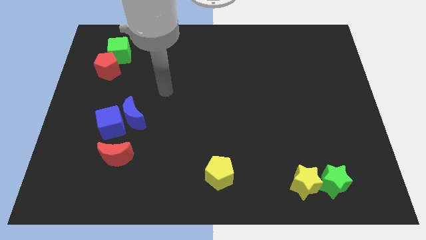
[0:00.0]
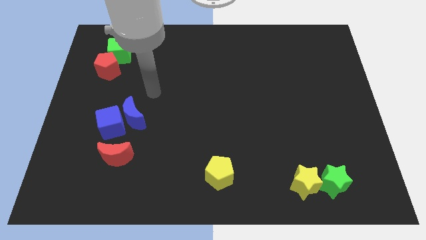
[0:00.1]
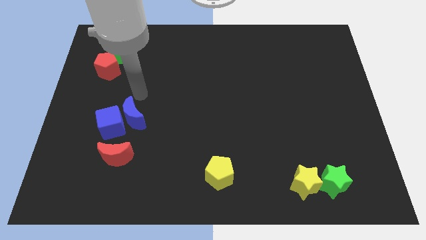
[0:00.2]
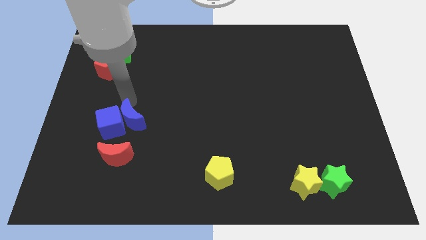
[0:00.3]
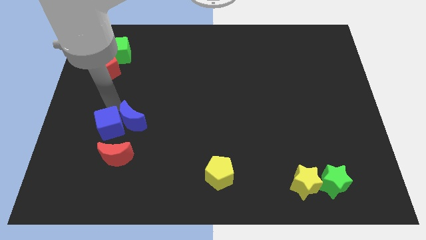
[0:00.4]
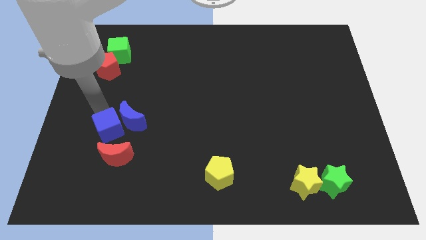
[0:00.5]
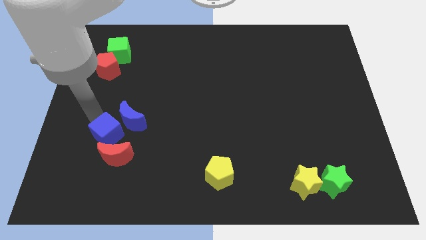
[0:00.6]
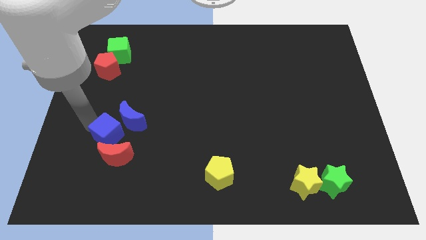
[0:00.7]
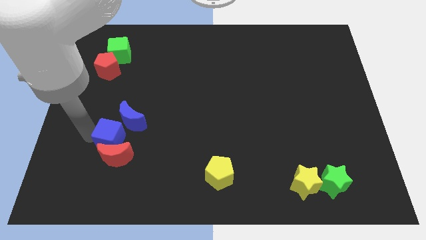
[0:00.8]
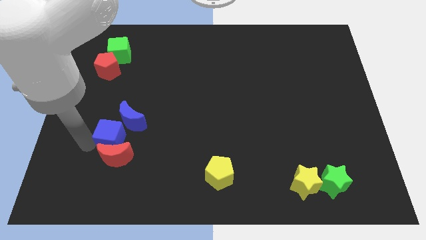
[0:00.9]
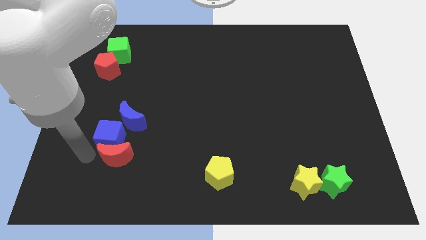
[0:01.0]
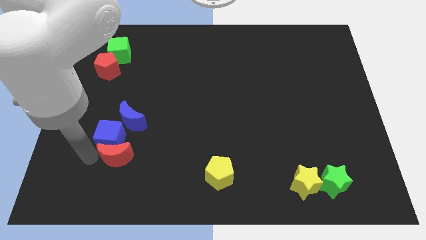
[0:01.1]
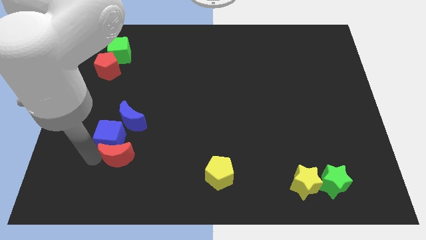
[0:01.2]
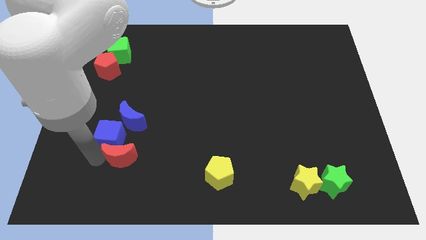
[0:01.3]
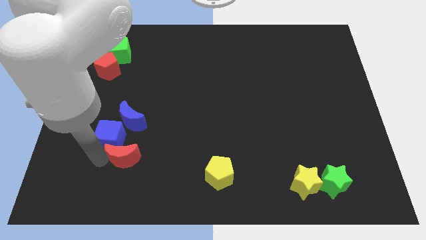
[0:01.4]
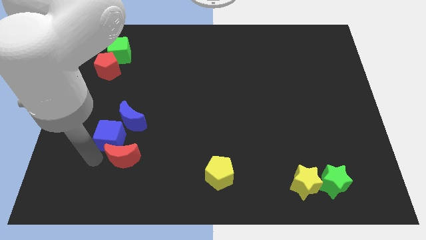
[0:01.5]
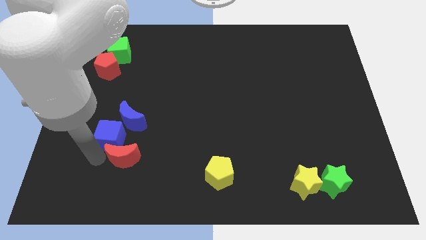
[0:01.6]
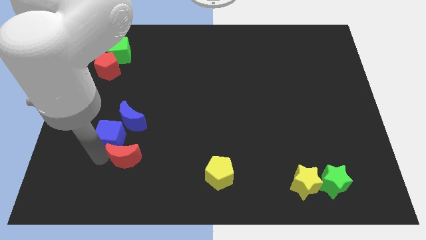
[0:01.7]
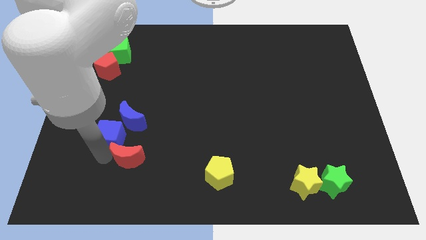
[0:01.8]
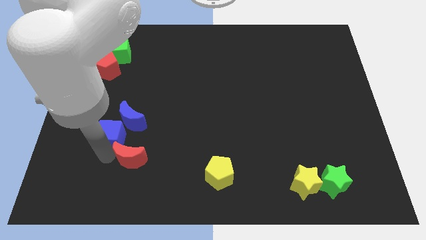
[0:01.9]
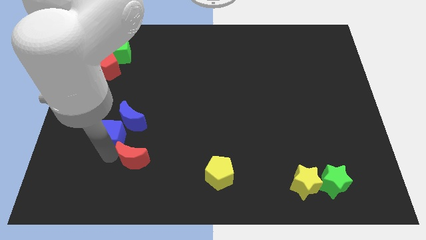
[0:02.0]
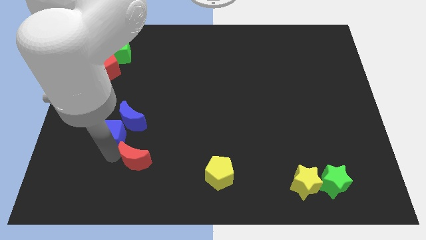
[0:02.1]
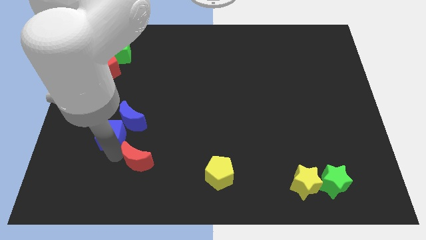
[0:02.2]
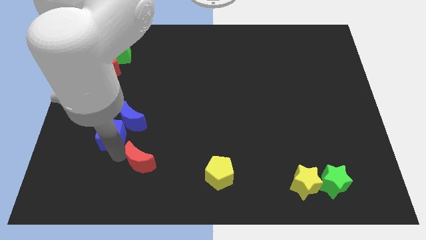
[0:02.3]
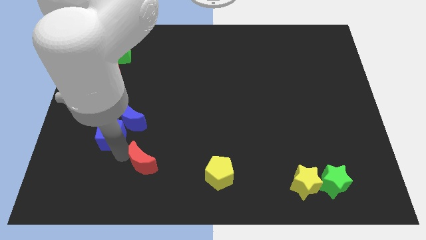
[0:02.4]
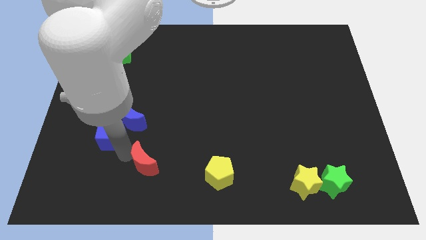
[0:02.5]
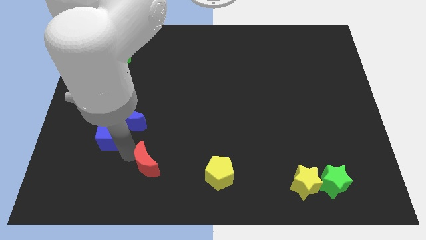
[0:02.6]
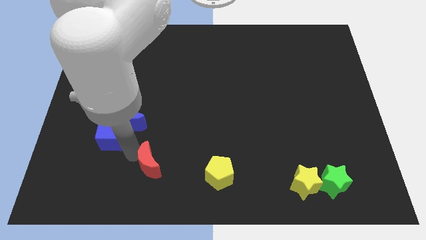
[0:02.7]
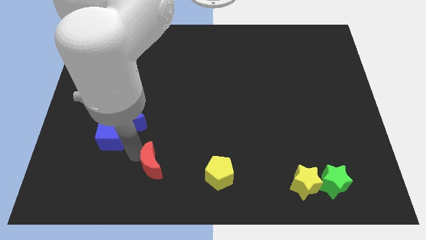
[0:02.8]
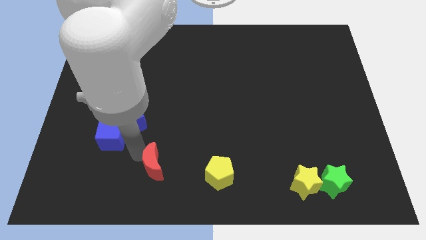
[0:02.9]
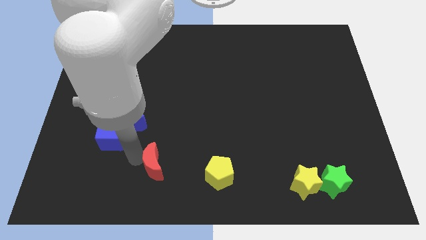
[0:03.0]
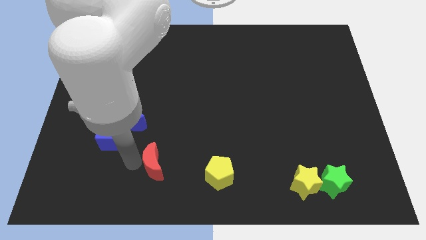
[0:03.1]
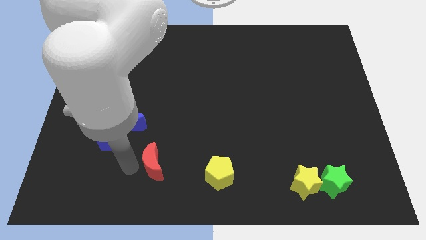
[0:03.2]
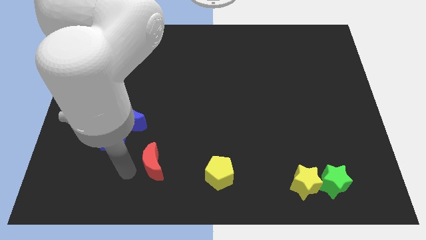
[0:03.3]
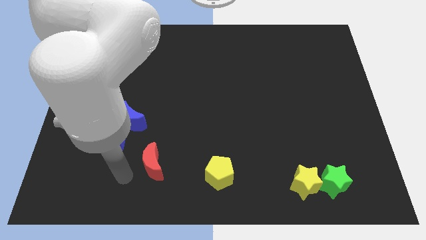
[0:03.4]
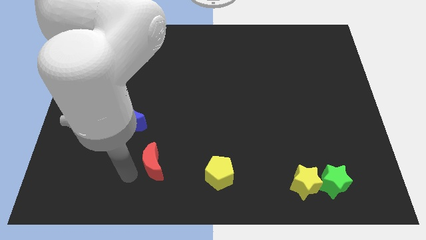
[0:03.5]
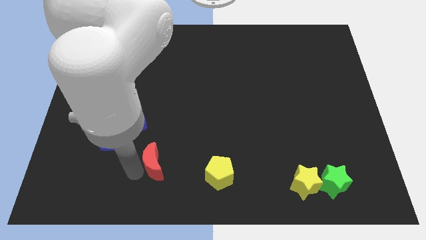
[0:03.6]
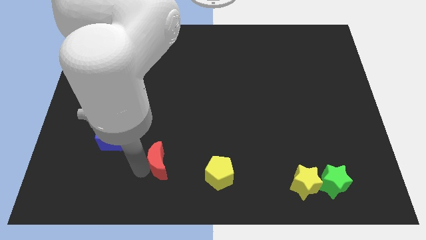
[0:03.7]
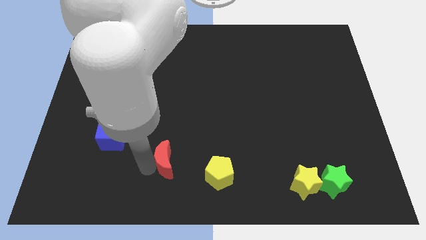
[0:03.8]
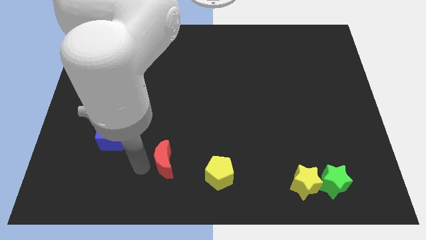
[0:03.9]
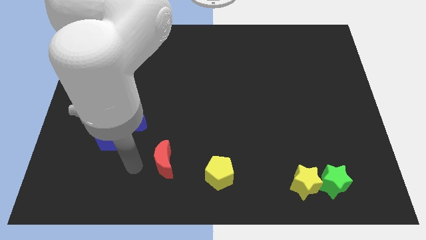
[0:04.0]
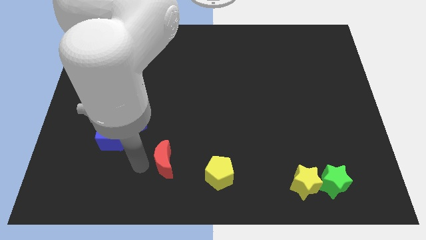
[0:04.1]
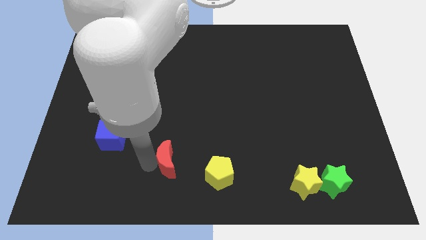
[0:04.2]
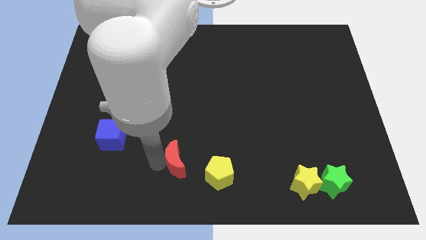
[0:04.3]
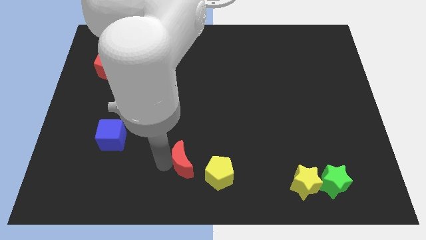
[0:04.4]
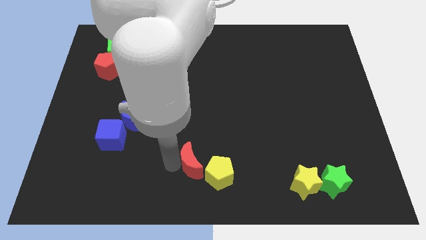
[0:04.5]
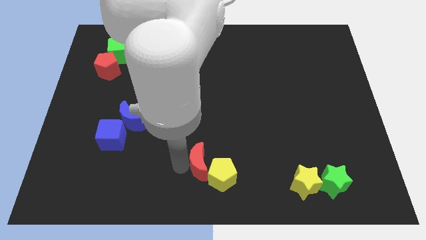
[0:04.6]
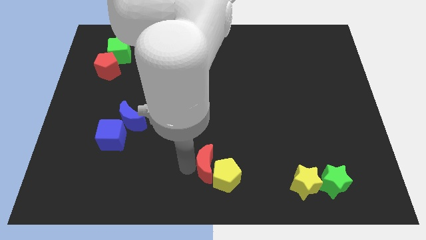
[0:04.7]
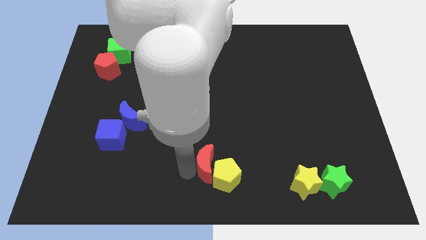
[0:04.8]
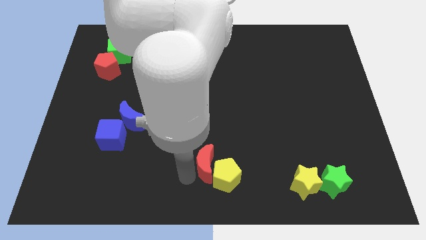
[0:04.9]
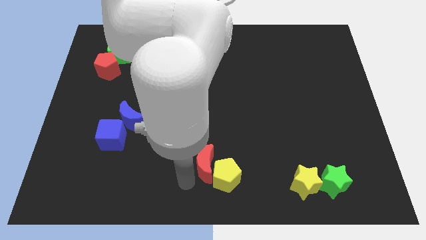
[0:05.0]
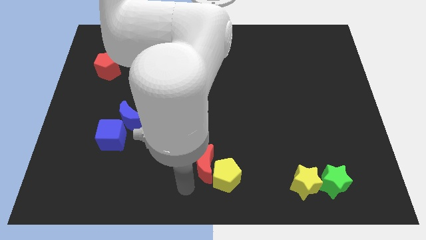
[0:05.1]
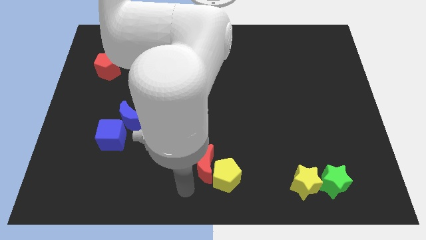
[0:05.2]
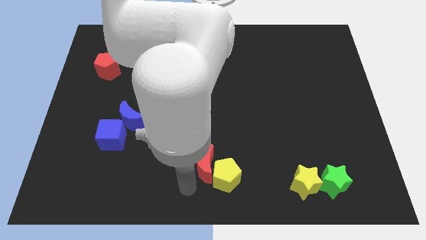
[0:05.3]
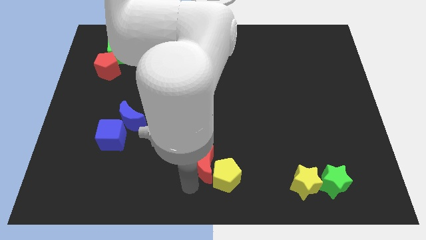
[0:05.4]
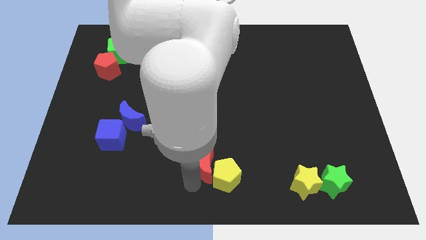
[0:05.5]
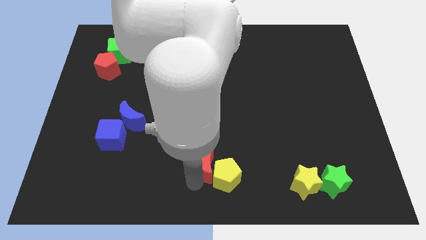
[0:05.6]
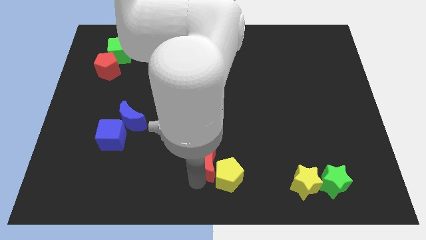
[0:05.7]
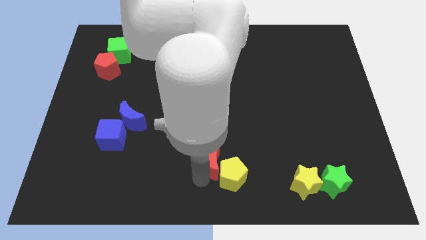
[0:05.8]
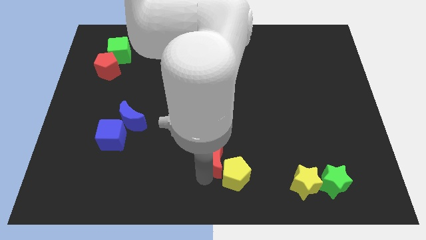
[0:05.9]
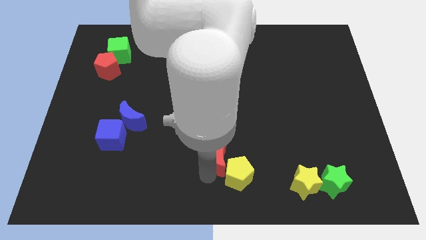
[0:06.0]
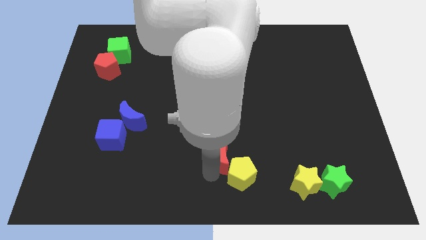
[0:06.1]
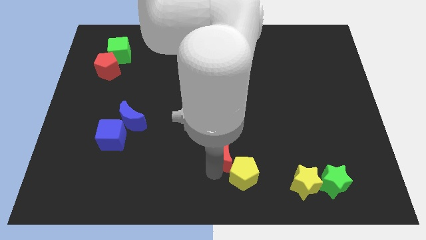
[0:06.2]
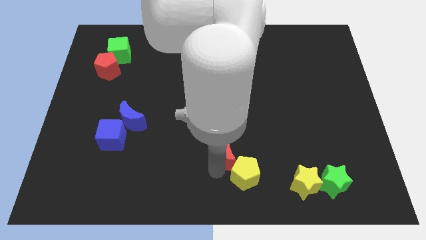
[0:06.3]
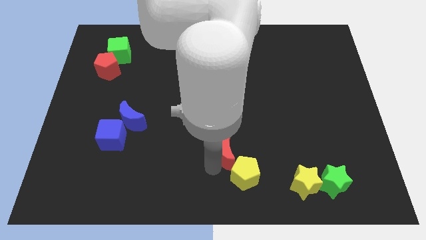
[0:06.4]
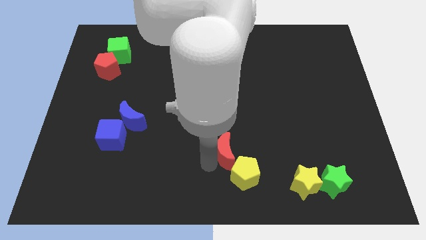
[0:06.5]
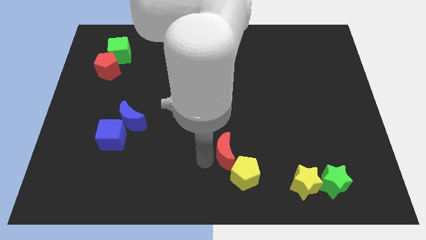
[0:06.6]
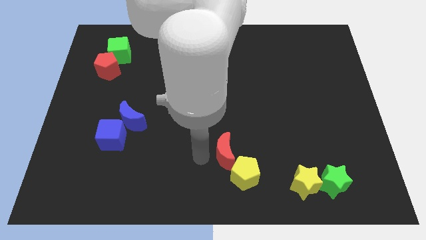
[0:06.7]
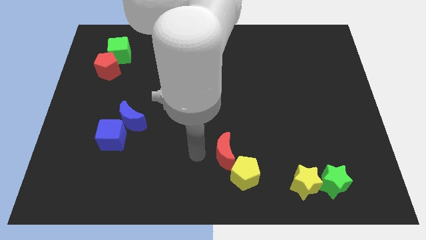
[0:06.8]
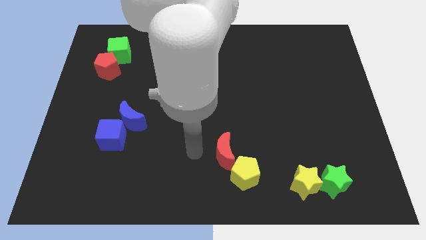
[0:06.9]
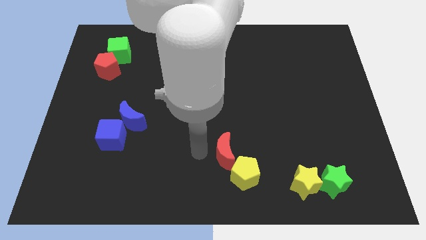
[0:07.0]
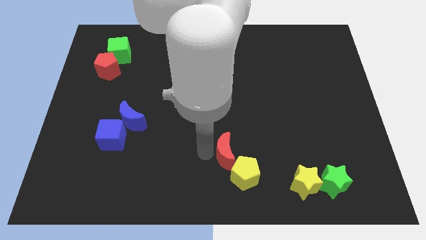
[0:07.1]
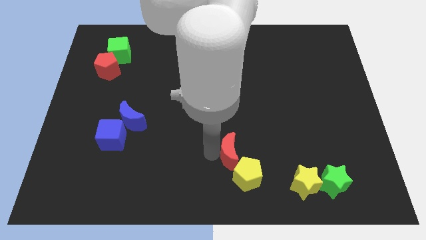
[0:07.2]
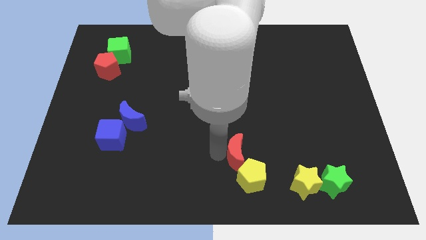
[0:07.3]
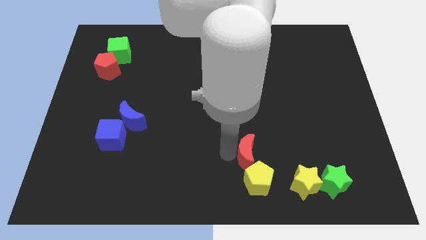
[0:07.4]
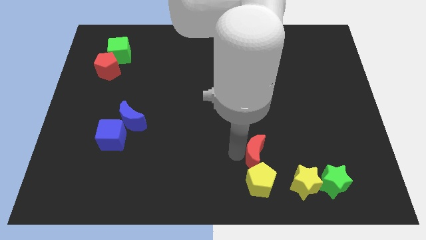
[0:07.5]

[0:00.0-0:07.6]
put the red moon to the top left of the yellow star
